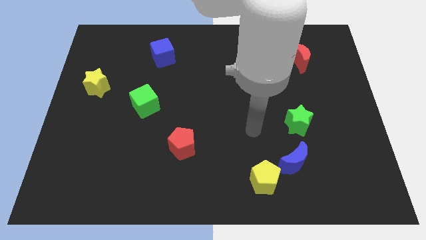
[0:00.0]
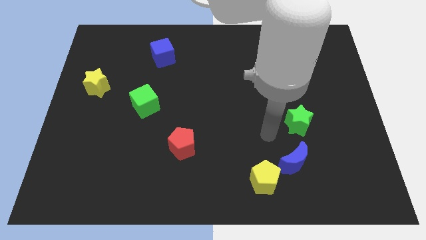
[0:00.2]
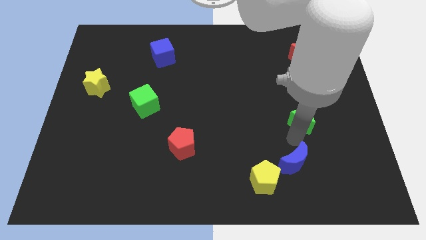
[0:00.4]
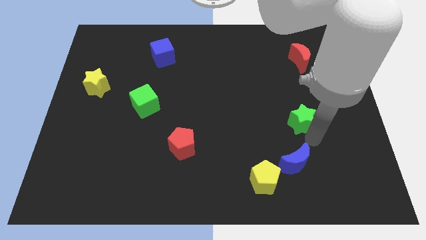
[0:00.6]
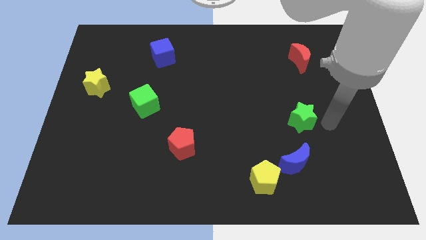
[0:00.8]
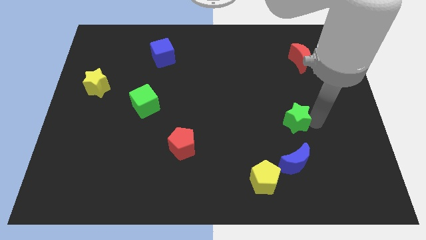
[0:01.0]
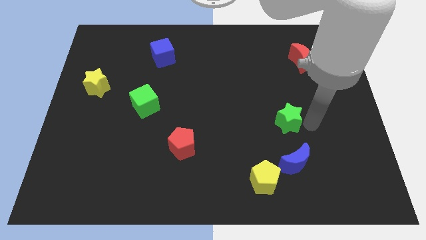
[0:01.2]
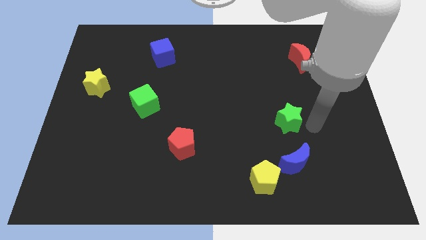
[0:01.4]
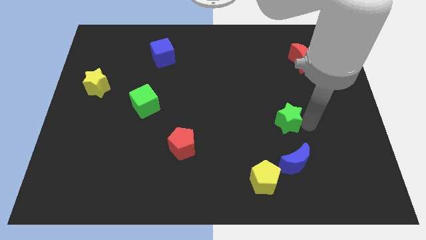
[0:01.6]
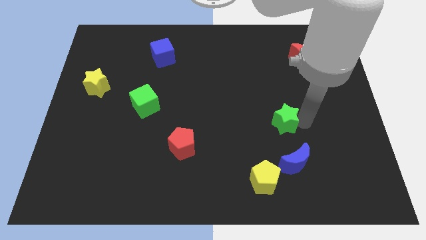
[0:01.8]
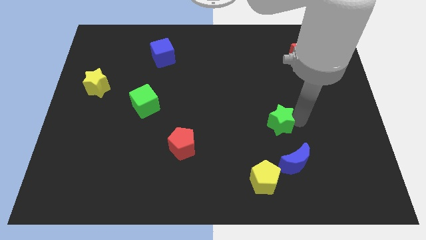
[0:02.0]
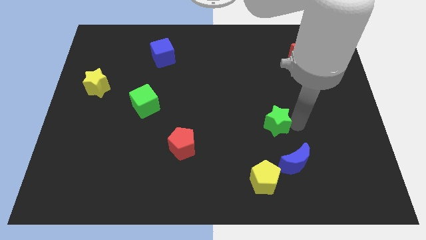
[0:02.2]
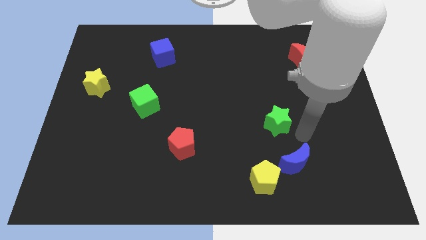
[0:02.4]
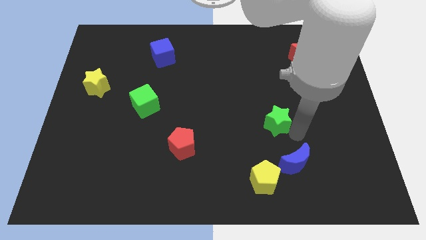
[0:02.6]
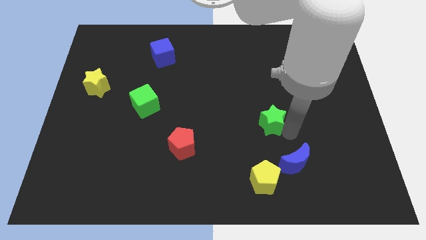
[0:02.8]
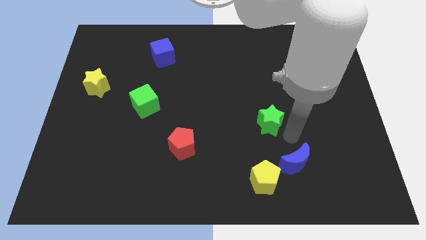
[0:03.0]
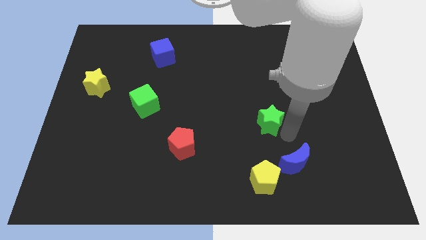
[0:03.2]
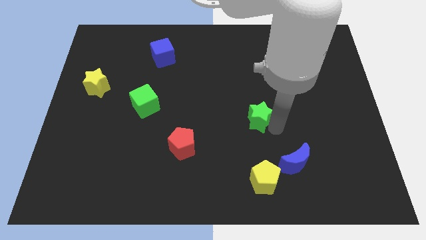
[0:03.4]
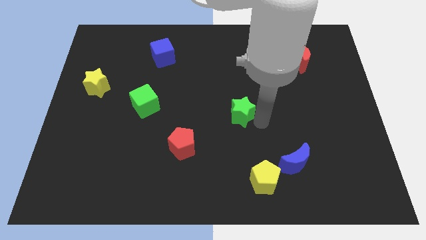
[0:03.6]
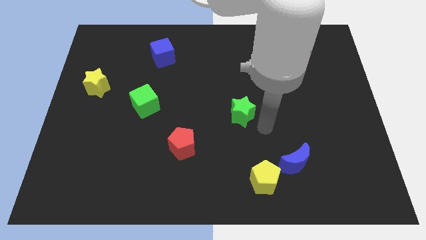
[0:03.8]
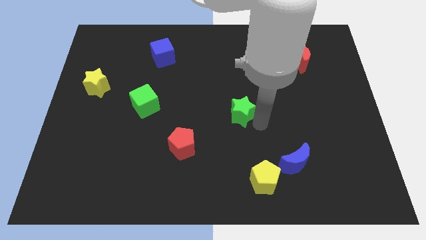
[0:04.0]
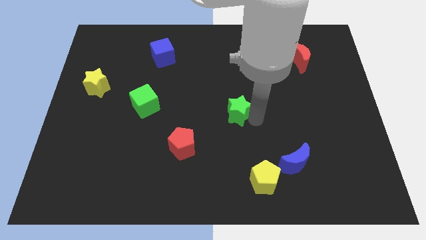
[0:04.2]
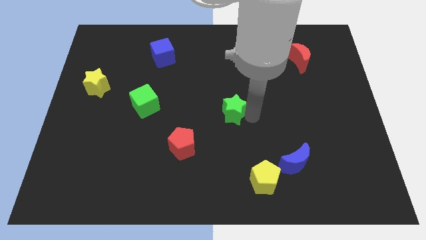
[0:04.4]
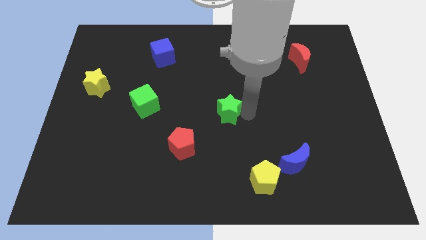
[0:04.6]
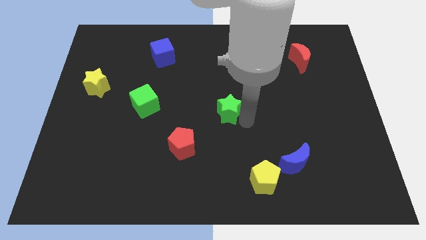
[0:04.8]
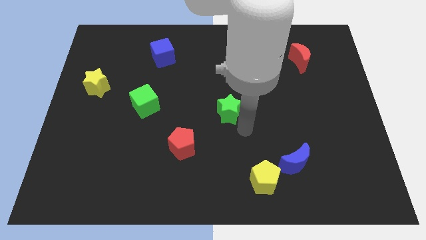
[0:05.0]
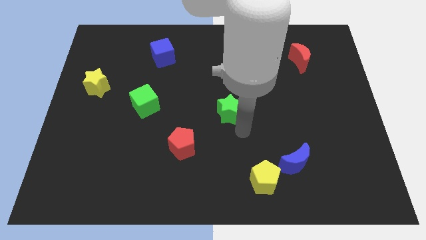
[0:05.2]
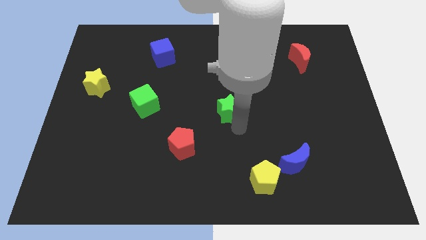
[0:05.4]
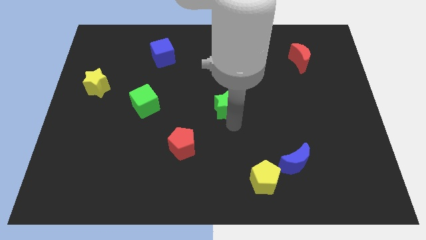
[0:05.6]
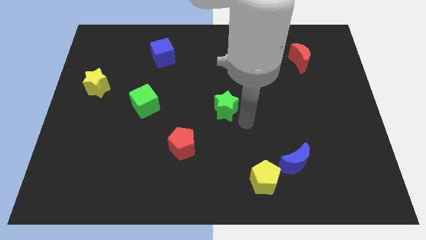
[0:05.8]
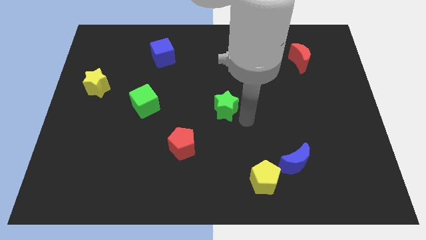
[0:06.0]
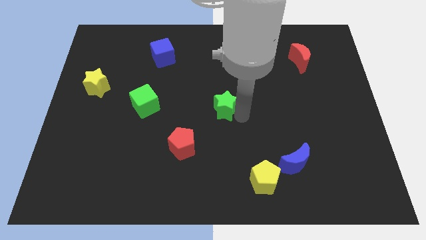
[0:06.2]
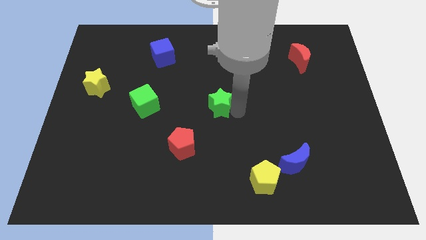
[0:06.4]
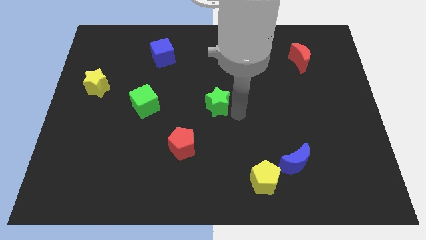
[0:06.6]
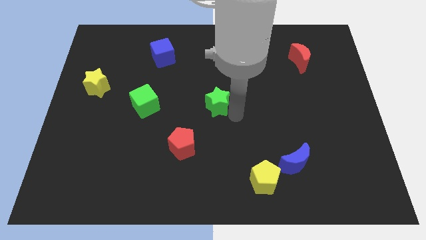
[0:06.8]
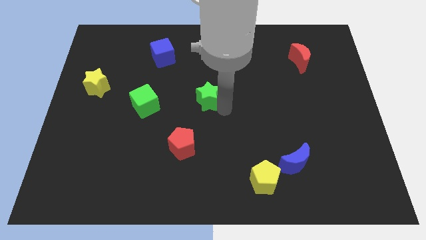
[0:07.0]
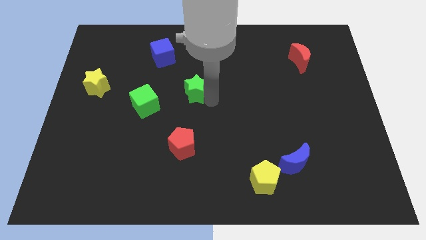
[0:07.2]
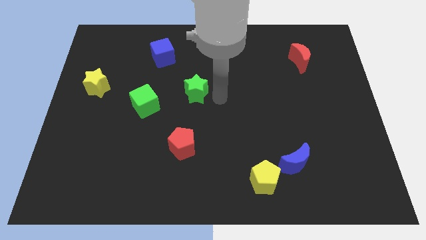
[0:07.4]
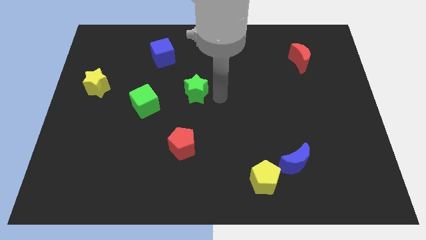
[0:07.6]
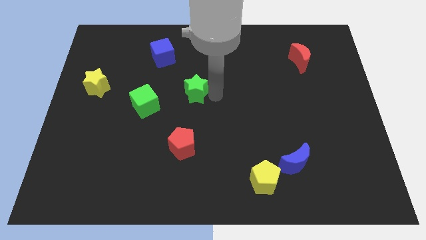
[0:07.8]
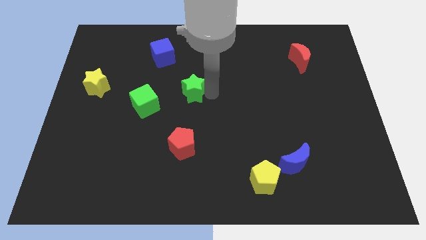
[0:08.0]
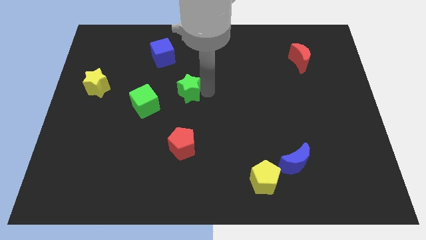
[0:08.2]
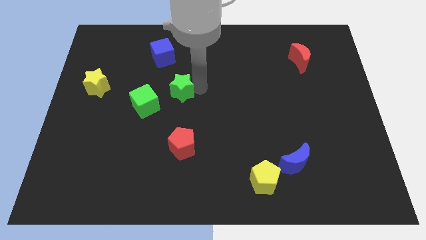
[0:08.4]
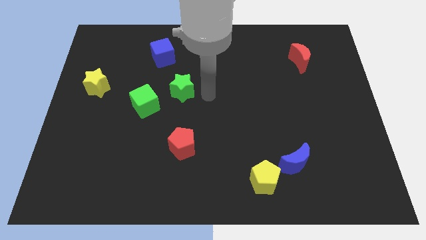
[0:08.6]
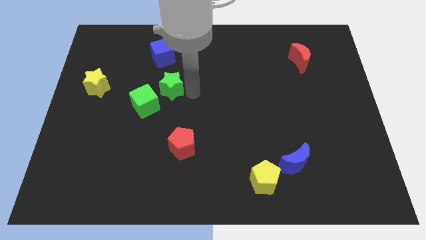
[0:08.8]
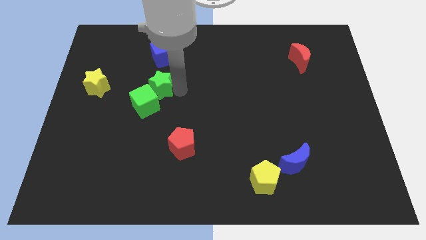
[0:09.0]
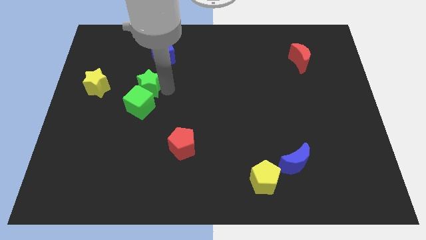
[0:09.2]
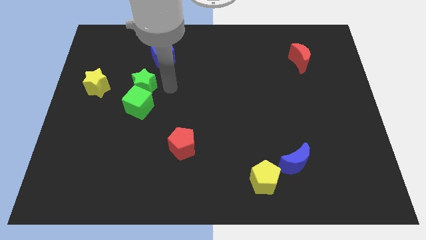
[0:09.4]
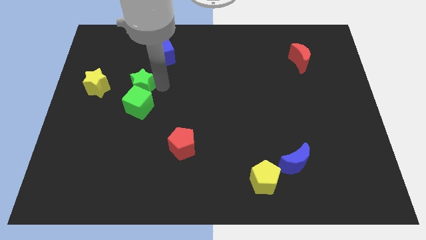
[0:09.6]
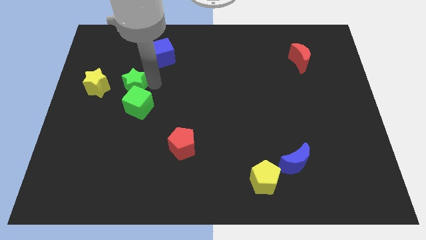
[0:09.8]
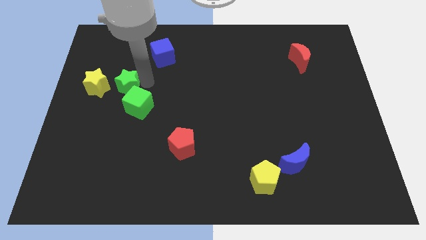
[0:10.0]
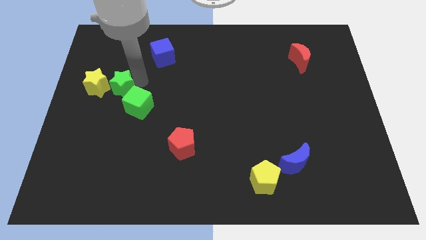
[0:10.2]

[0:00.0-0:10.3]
slide the green star close to the yellow star

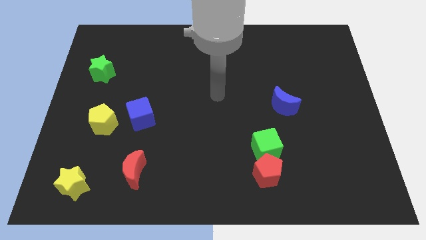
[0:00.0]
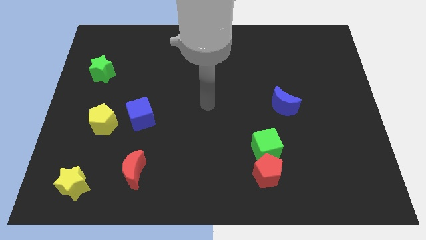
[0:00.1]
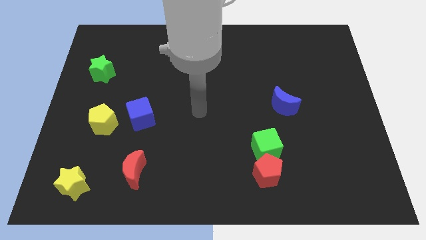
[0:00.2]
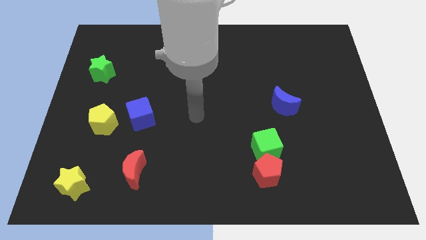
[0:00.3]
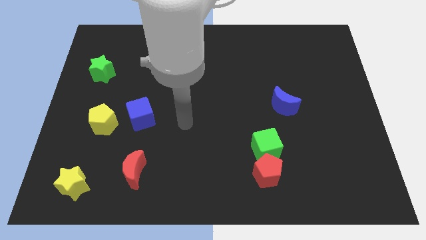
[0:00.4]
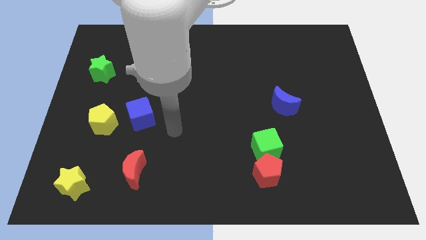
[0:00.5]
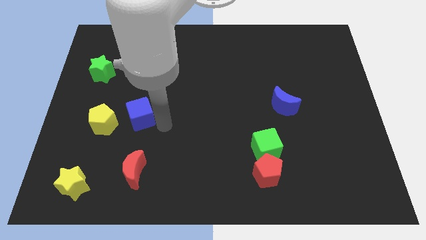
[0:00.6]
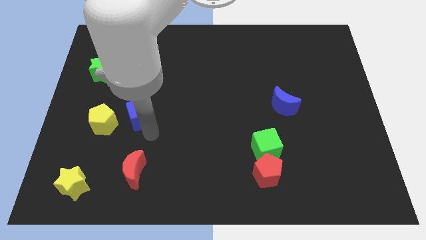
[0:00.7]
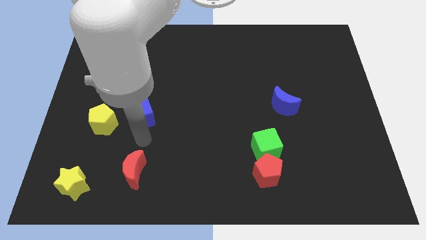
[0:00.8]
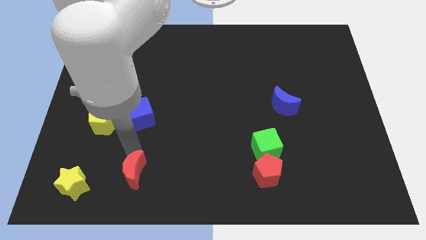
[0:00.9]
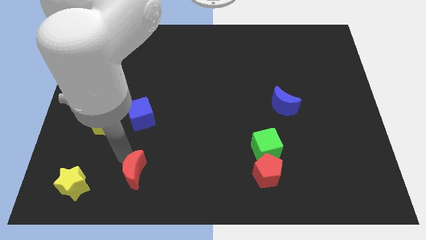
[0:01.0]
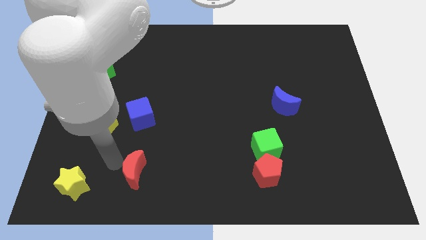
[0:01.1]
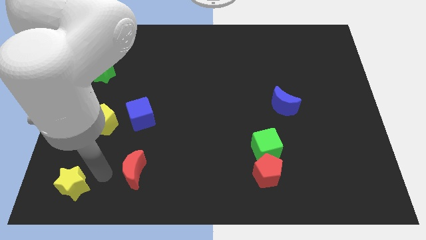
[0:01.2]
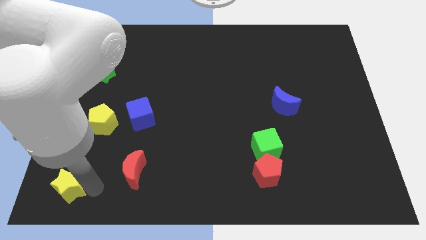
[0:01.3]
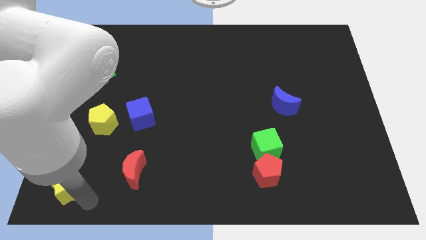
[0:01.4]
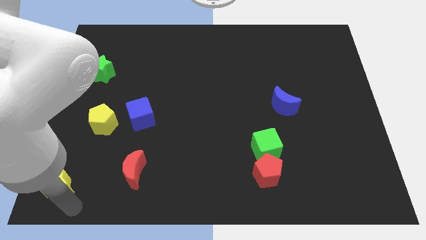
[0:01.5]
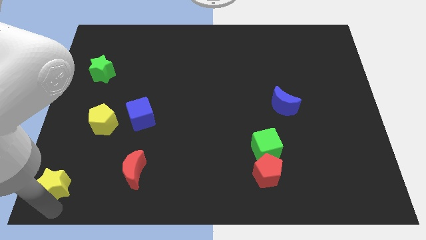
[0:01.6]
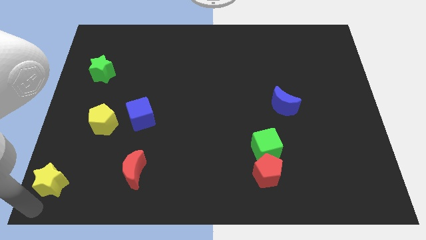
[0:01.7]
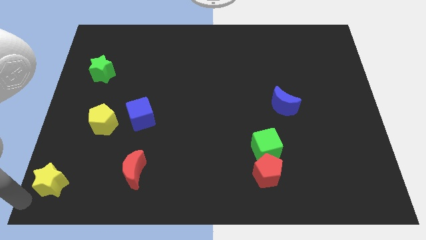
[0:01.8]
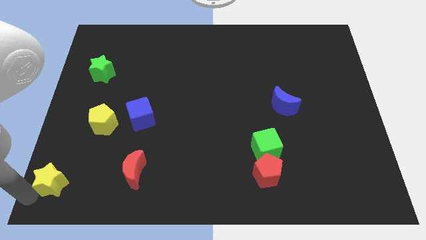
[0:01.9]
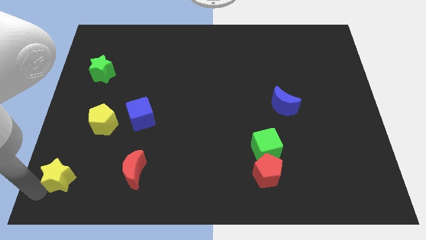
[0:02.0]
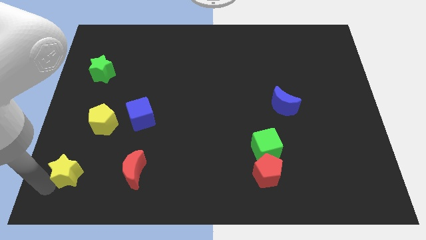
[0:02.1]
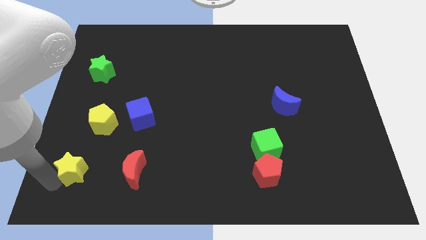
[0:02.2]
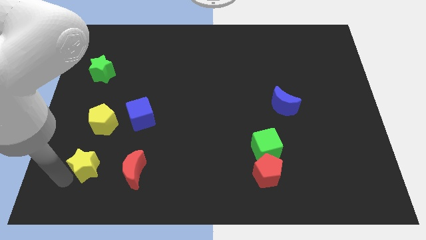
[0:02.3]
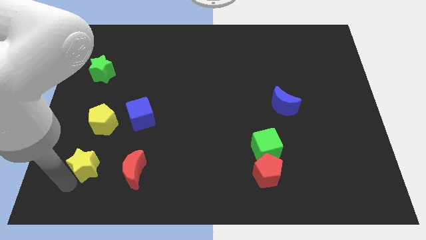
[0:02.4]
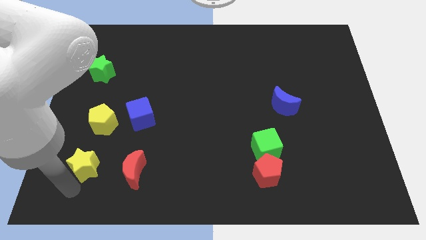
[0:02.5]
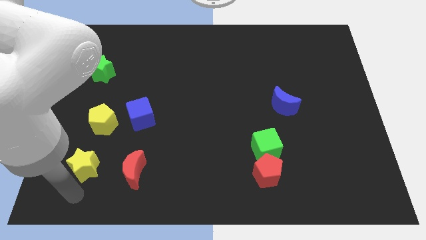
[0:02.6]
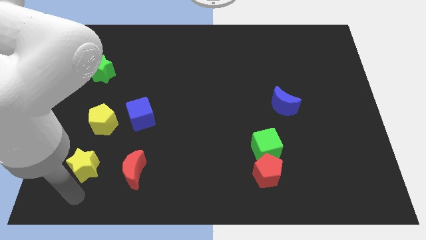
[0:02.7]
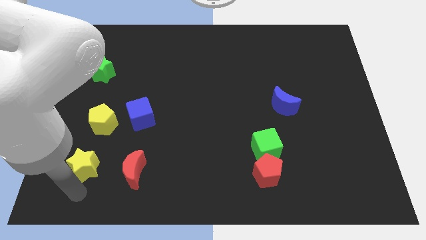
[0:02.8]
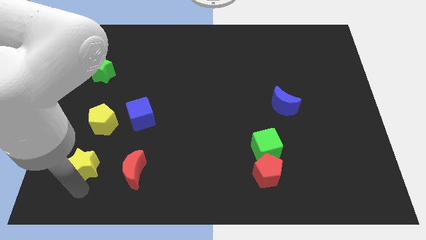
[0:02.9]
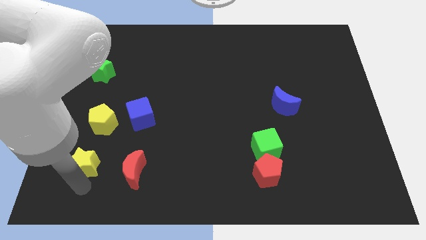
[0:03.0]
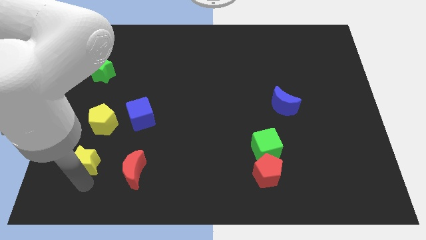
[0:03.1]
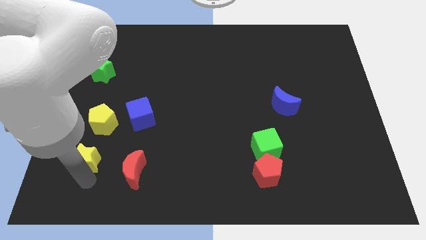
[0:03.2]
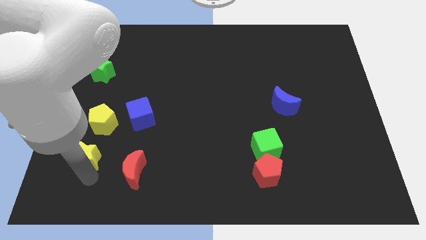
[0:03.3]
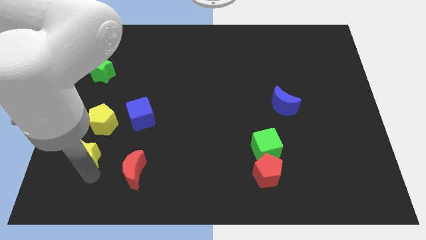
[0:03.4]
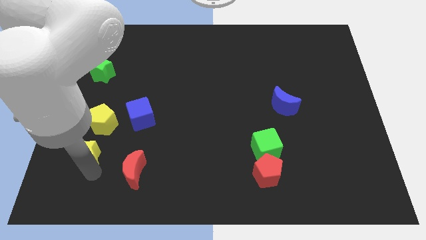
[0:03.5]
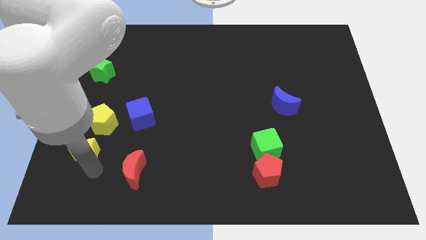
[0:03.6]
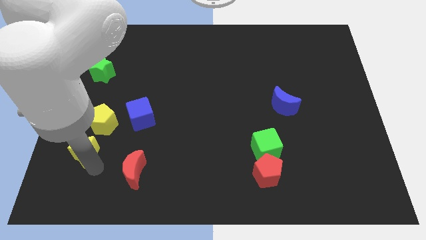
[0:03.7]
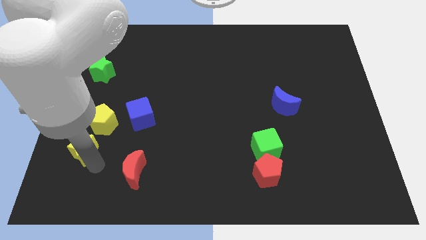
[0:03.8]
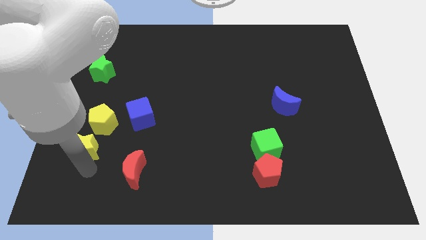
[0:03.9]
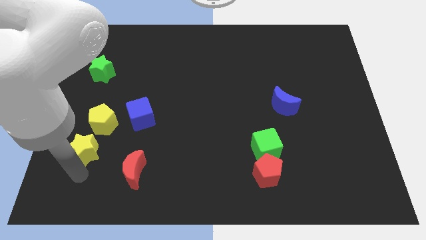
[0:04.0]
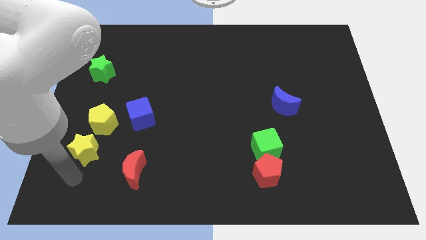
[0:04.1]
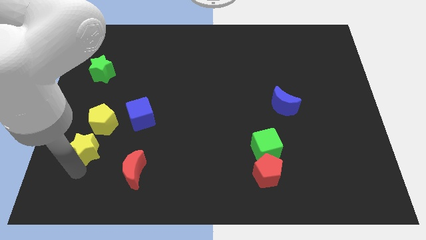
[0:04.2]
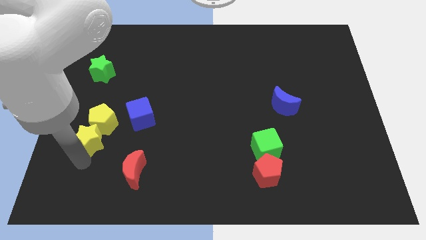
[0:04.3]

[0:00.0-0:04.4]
move the yellow star to the yellow pentagon
